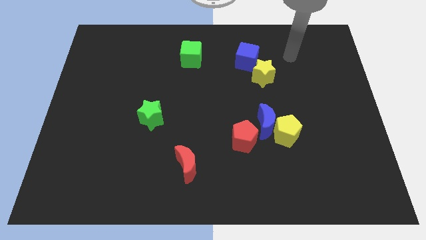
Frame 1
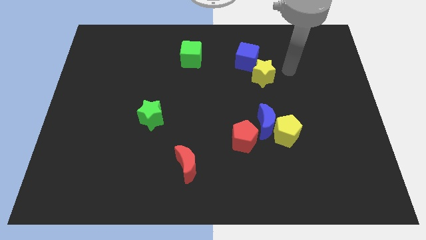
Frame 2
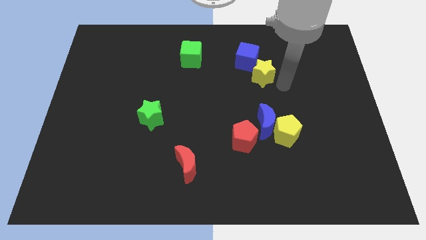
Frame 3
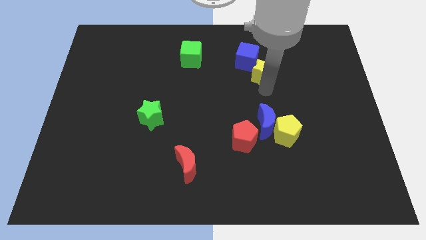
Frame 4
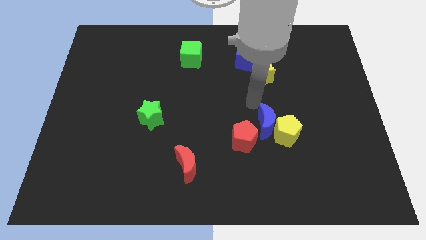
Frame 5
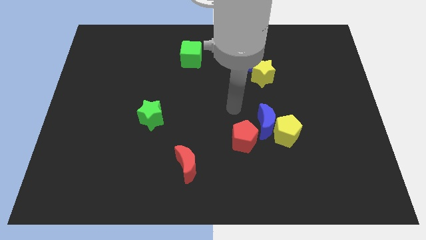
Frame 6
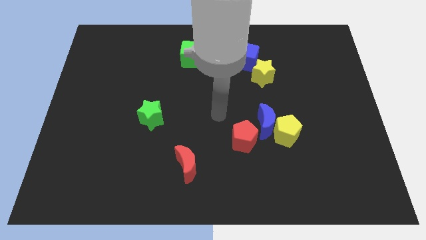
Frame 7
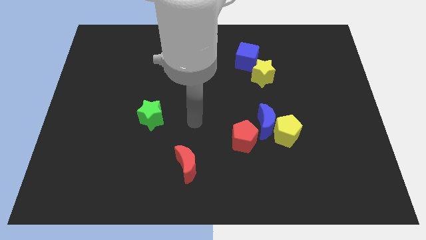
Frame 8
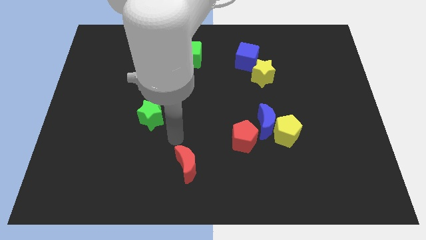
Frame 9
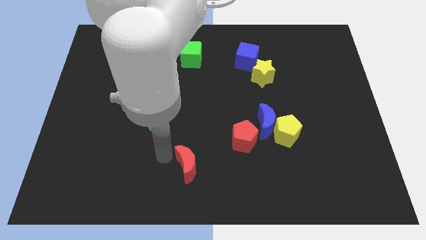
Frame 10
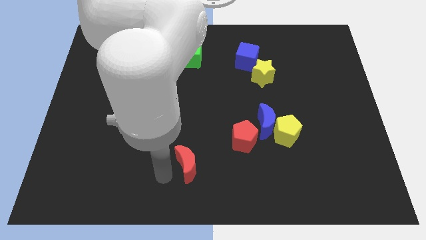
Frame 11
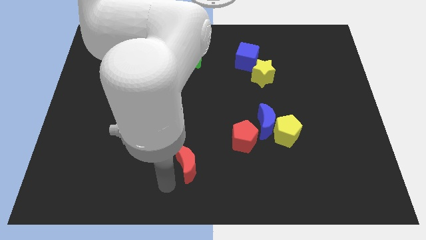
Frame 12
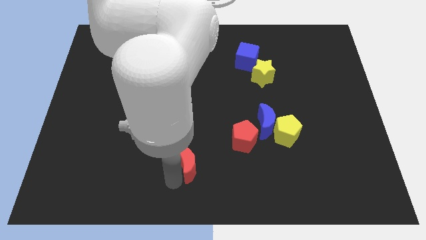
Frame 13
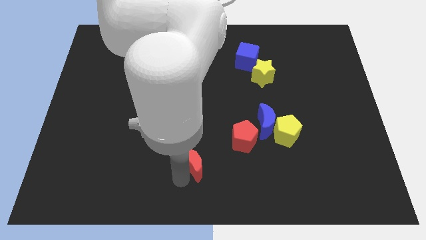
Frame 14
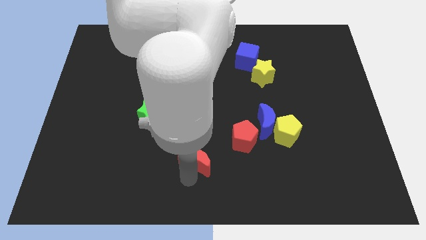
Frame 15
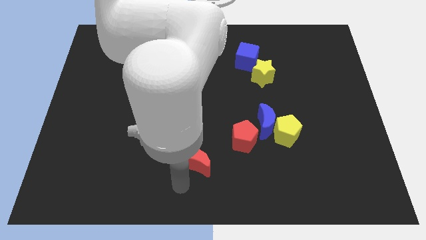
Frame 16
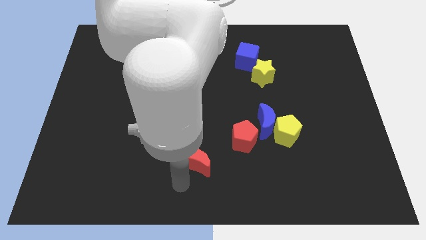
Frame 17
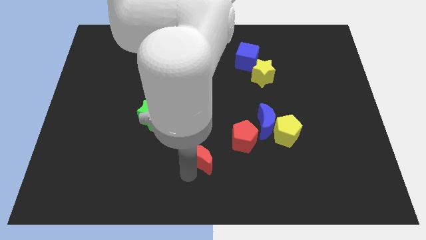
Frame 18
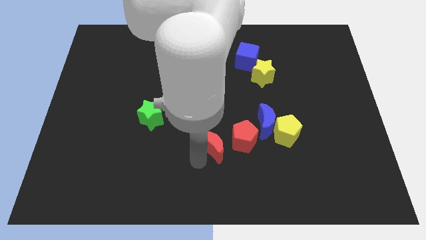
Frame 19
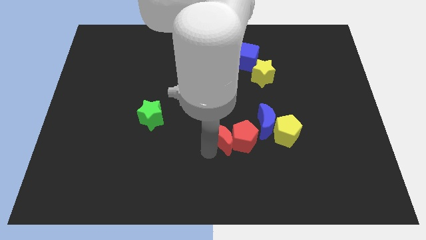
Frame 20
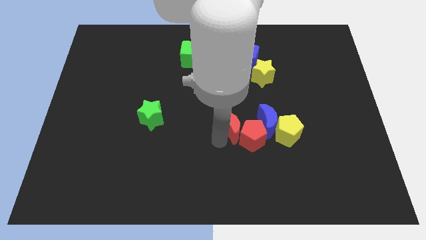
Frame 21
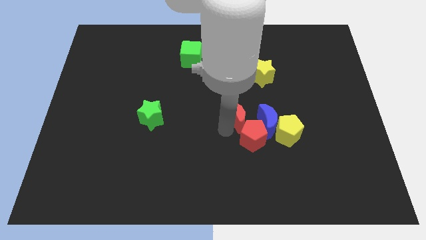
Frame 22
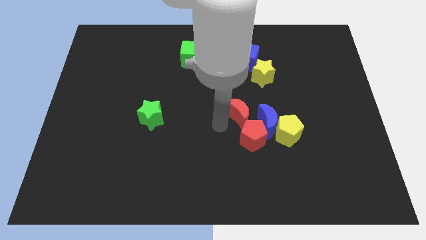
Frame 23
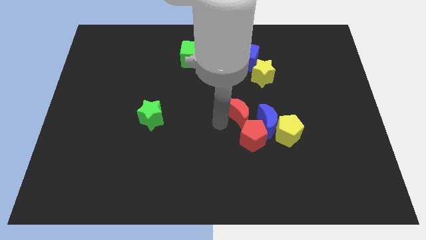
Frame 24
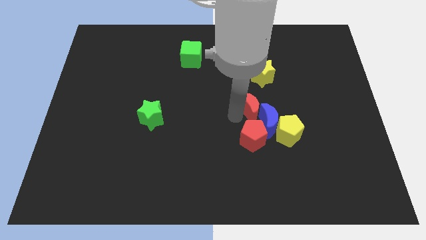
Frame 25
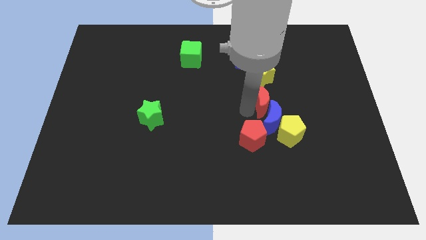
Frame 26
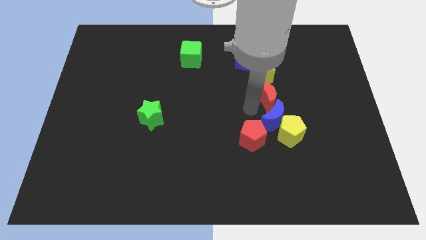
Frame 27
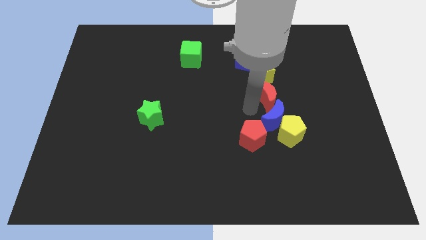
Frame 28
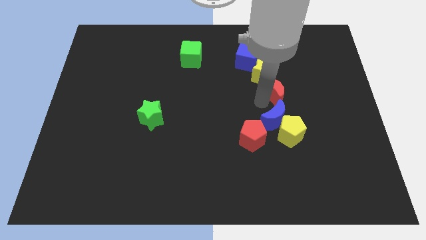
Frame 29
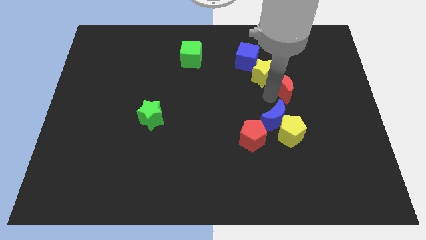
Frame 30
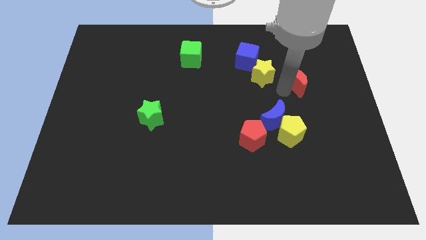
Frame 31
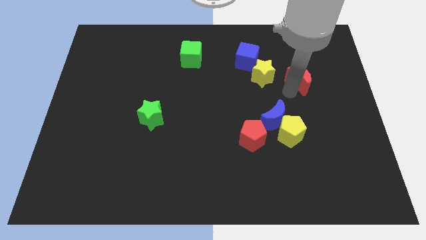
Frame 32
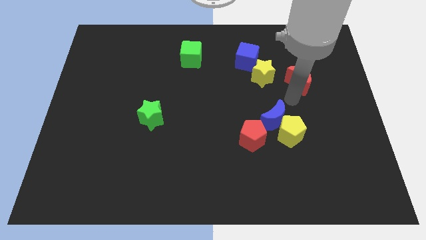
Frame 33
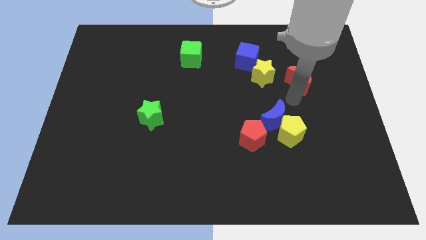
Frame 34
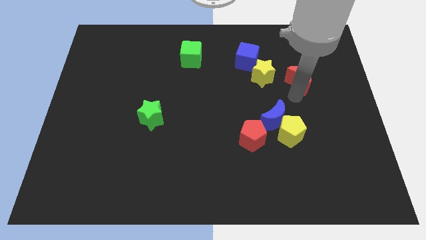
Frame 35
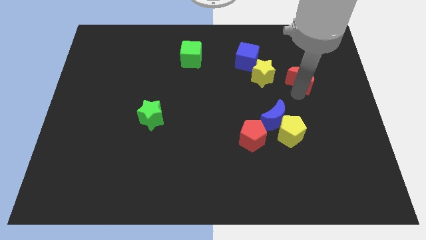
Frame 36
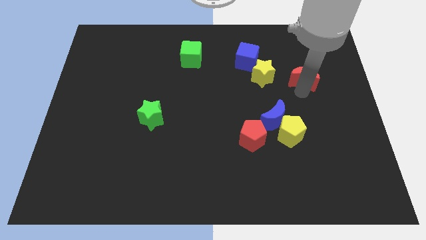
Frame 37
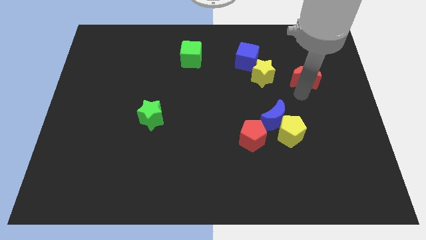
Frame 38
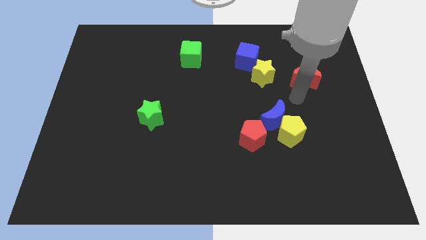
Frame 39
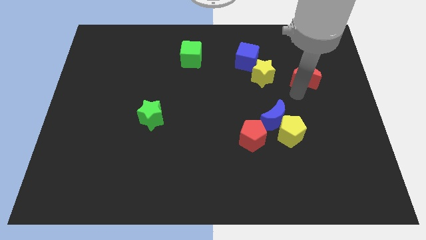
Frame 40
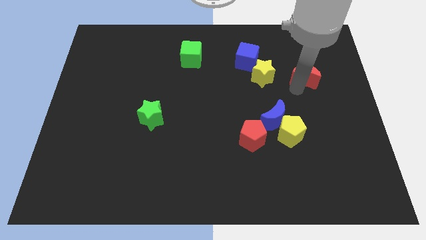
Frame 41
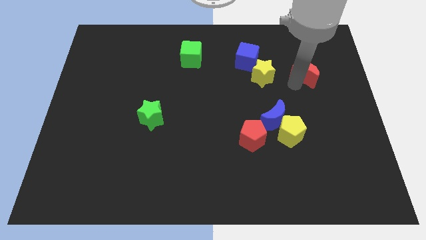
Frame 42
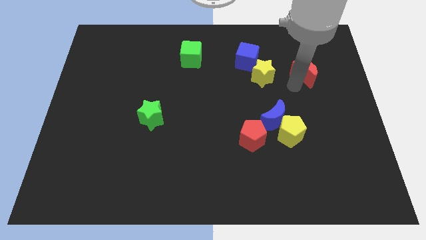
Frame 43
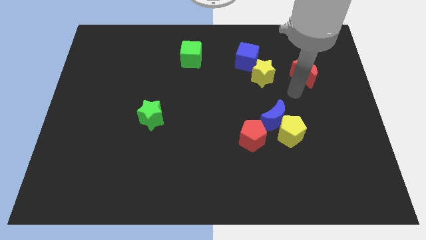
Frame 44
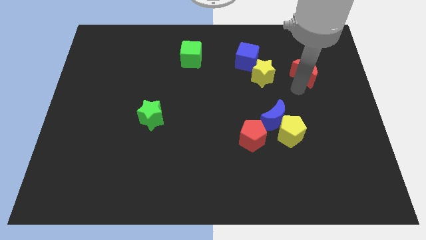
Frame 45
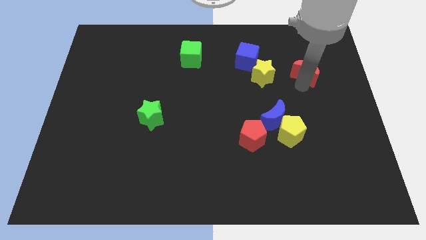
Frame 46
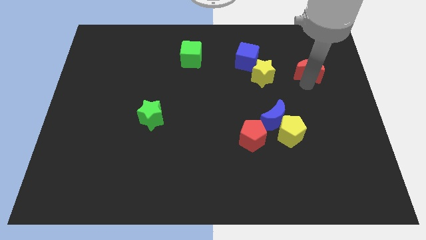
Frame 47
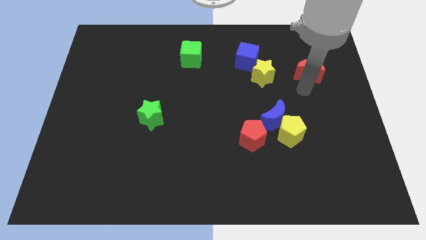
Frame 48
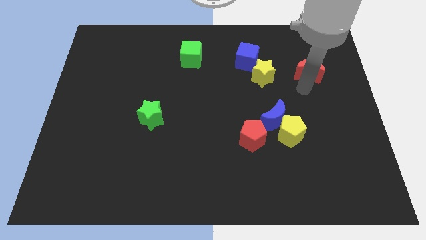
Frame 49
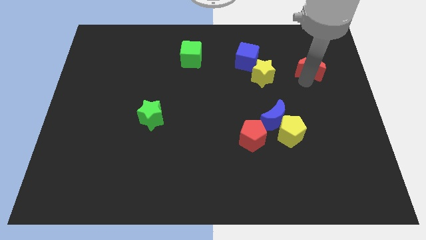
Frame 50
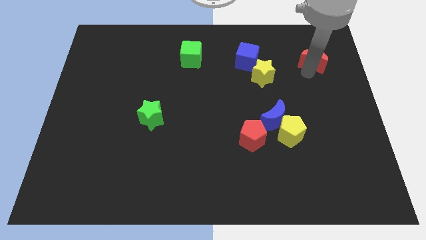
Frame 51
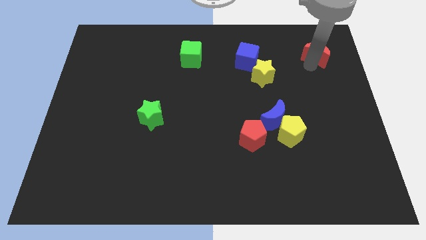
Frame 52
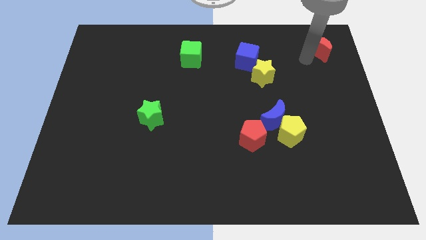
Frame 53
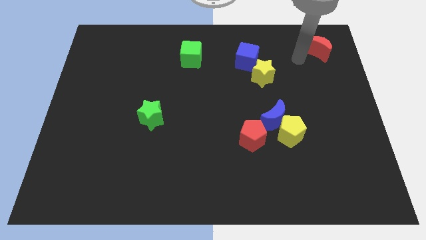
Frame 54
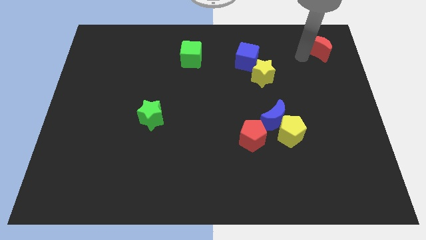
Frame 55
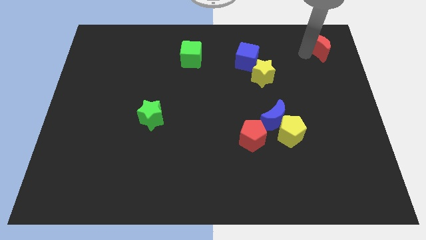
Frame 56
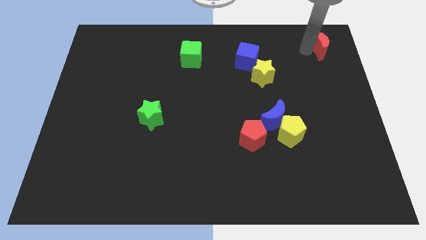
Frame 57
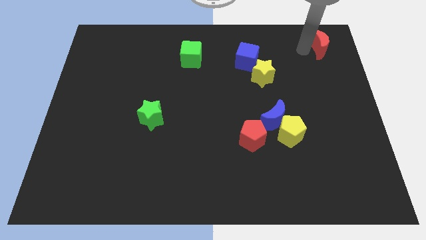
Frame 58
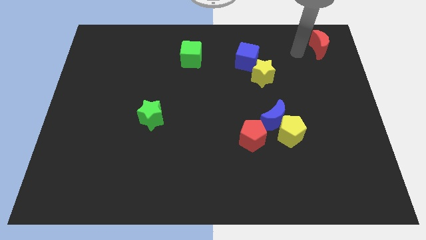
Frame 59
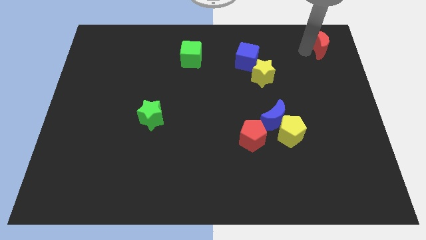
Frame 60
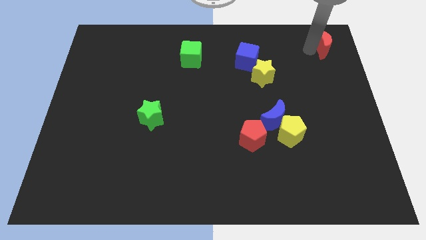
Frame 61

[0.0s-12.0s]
slide the red moon to the top right corner

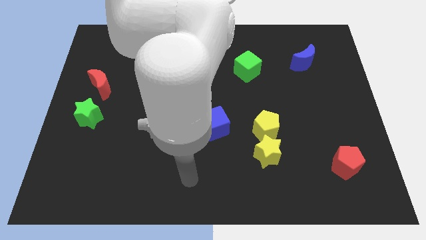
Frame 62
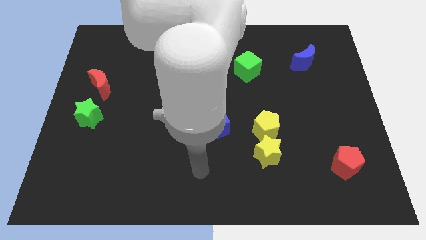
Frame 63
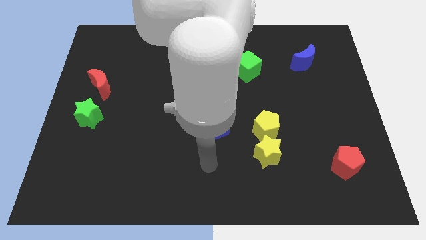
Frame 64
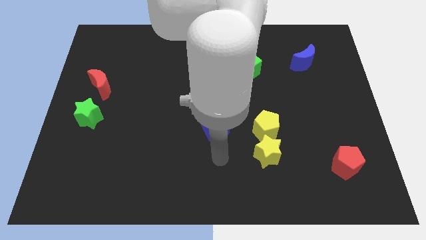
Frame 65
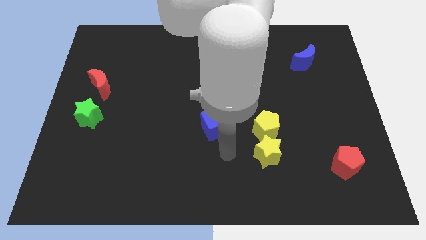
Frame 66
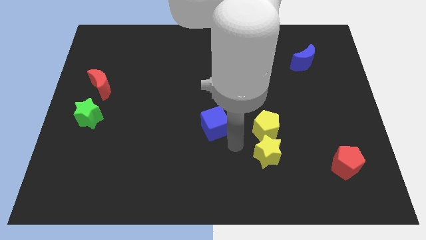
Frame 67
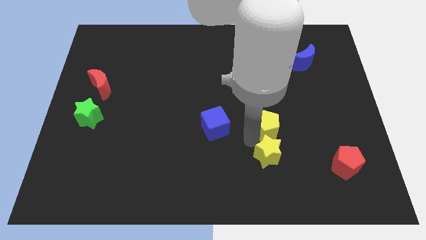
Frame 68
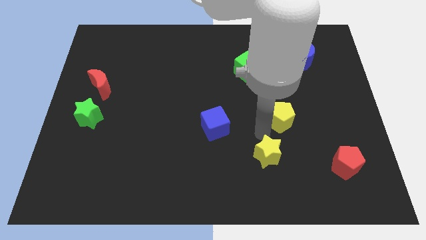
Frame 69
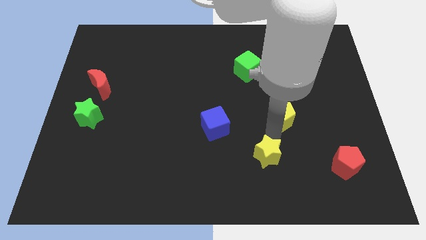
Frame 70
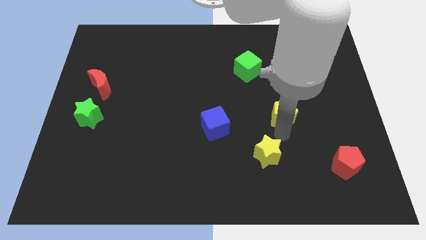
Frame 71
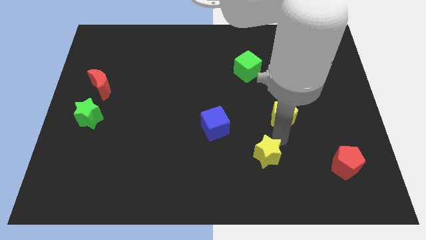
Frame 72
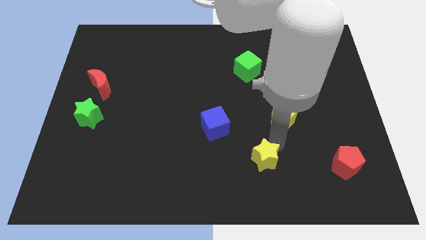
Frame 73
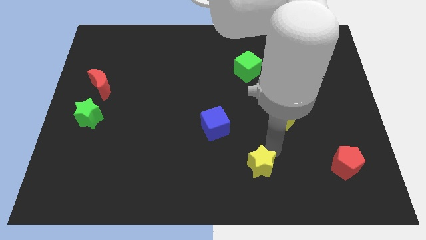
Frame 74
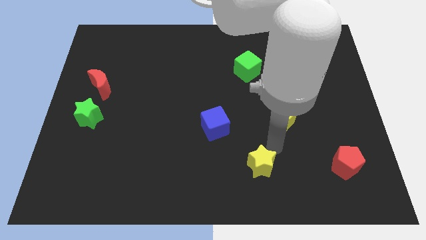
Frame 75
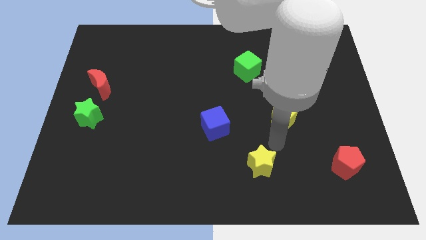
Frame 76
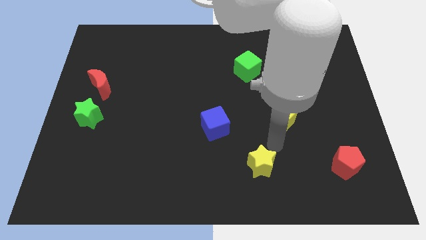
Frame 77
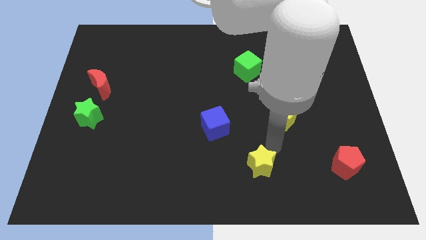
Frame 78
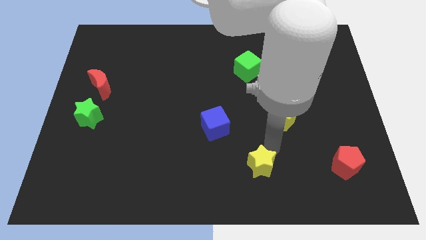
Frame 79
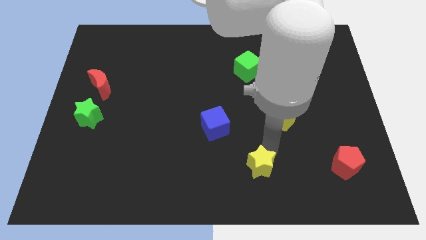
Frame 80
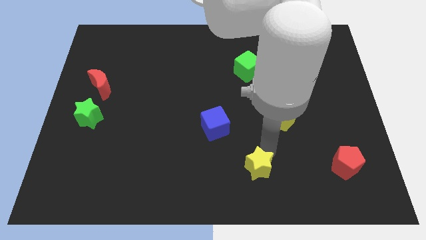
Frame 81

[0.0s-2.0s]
push the yellow star to the bottom
